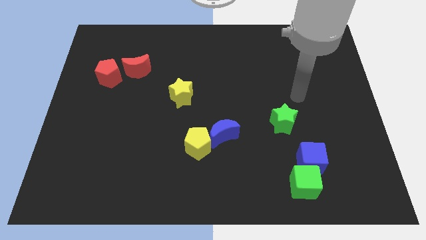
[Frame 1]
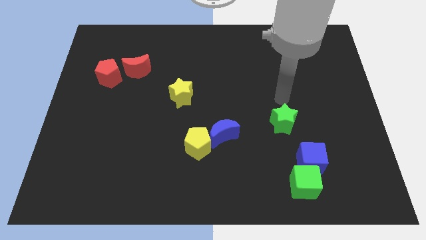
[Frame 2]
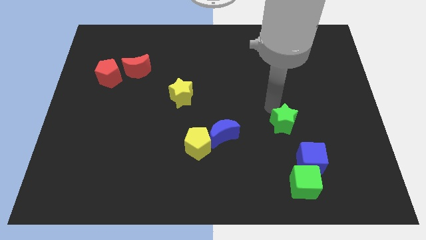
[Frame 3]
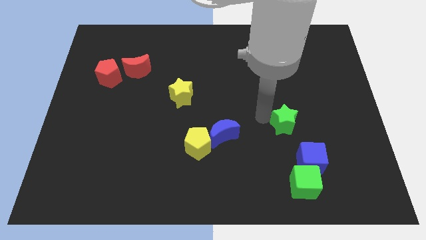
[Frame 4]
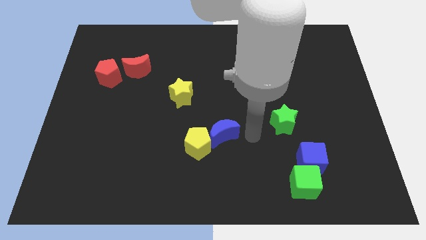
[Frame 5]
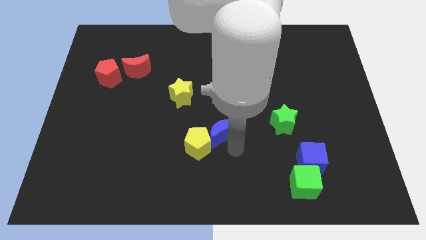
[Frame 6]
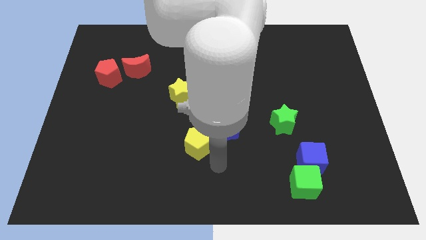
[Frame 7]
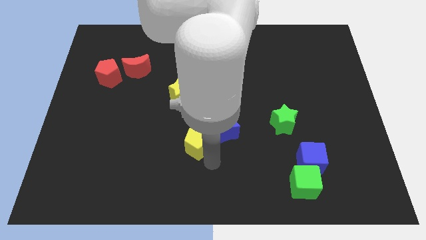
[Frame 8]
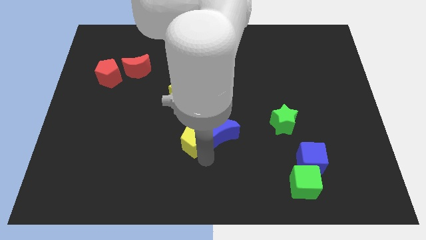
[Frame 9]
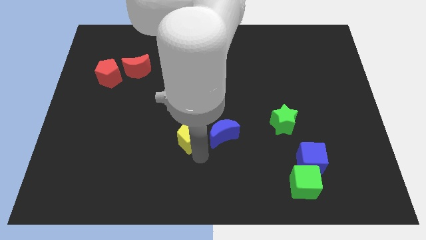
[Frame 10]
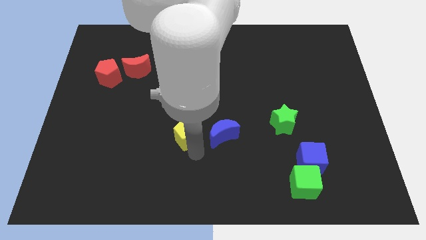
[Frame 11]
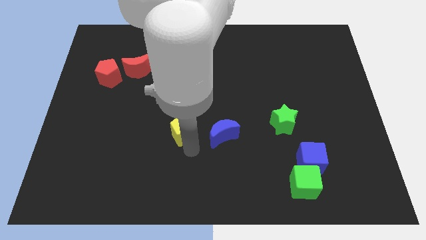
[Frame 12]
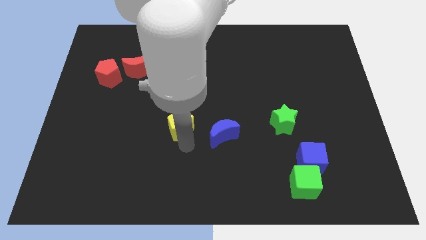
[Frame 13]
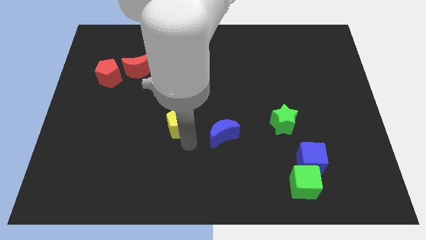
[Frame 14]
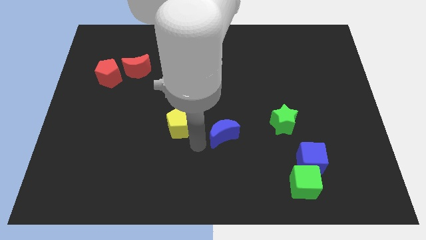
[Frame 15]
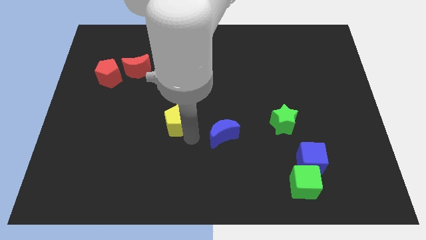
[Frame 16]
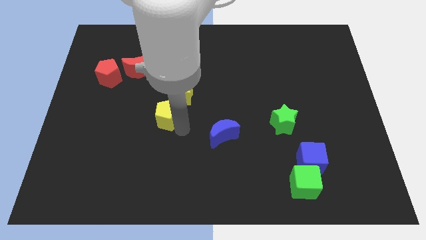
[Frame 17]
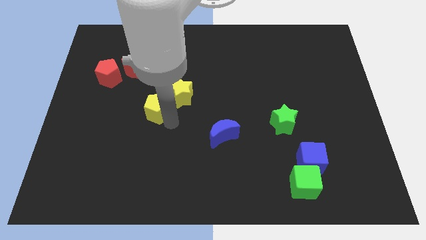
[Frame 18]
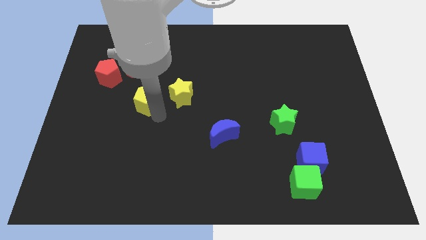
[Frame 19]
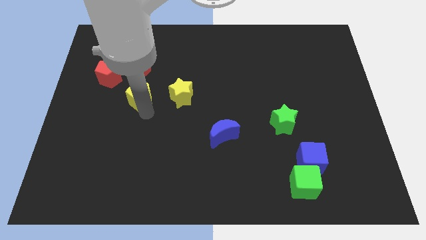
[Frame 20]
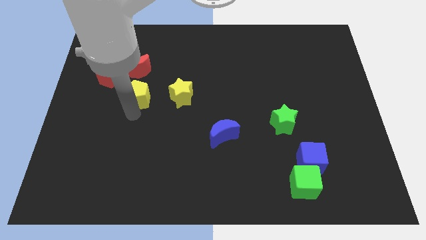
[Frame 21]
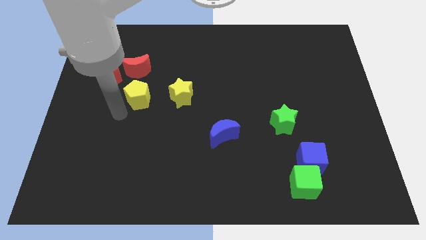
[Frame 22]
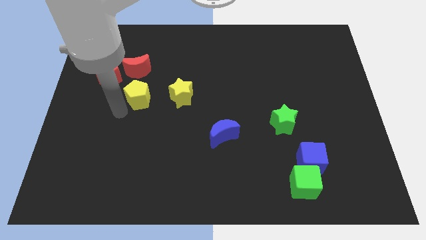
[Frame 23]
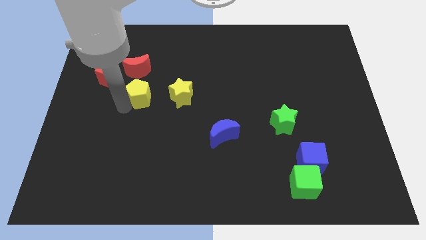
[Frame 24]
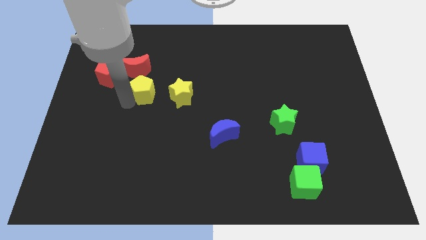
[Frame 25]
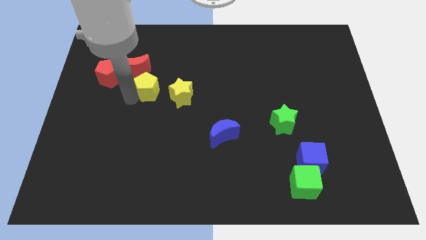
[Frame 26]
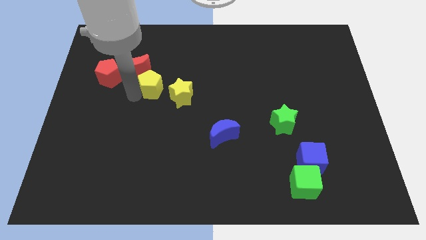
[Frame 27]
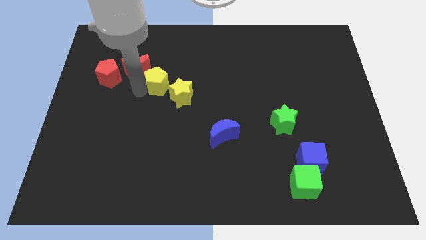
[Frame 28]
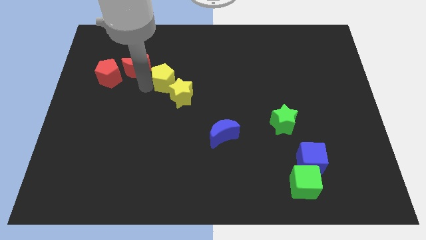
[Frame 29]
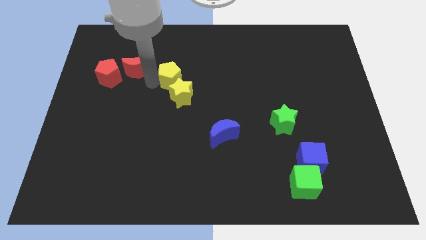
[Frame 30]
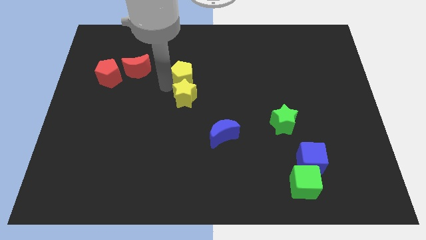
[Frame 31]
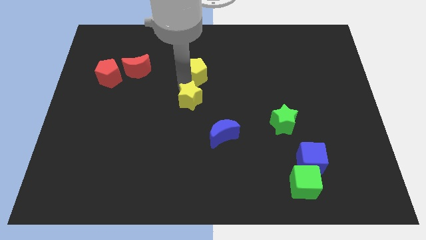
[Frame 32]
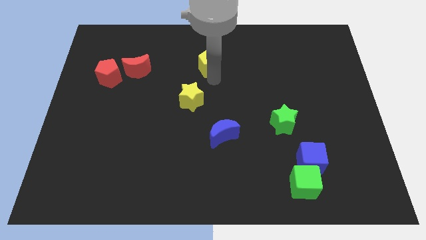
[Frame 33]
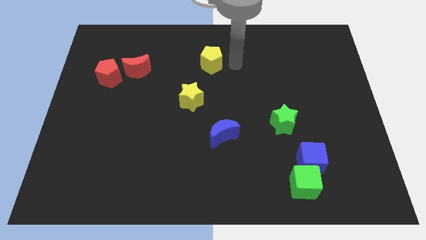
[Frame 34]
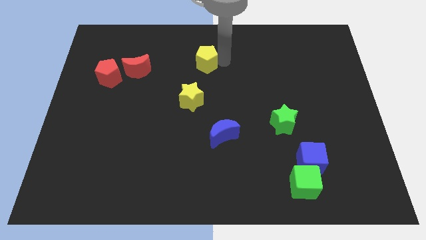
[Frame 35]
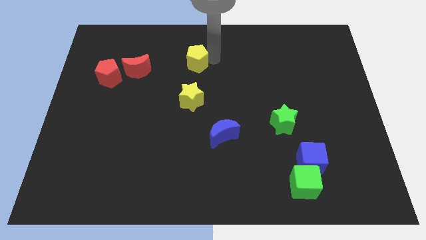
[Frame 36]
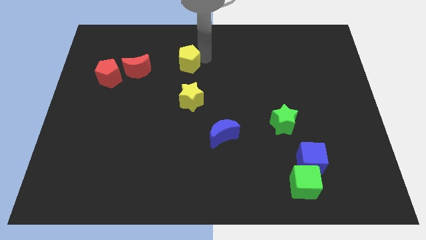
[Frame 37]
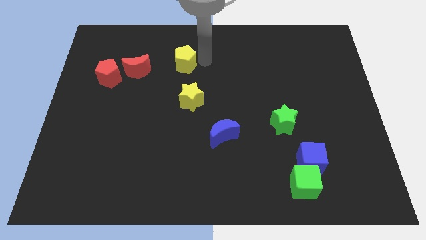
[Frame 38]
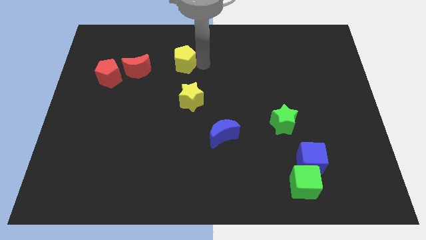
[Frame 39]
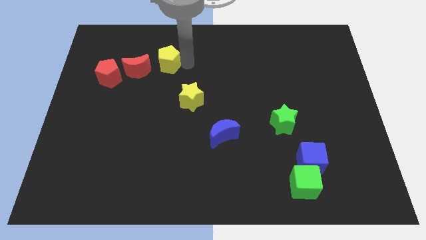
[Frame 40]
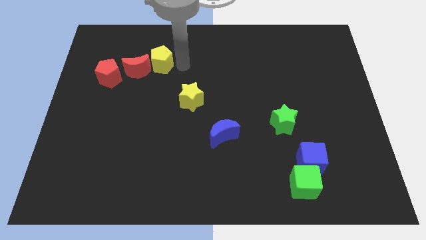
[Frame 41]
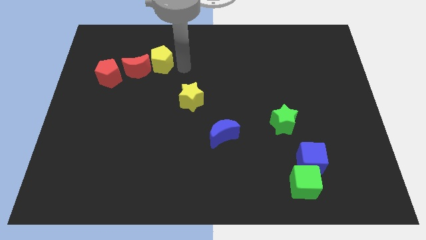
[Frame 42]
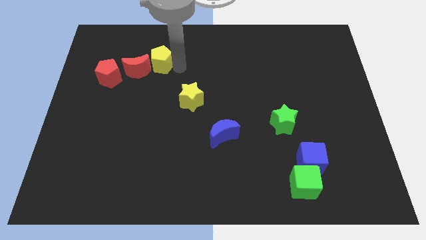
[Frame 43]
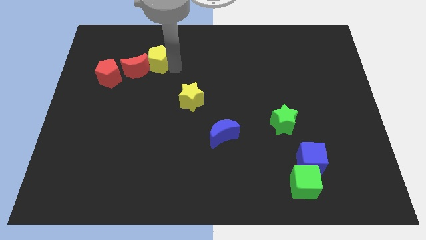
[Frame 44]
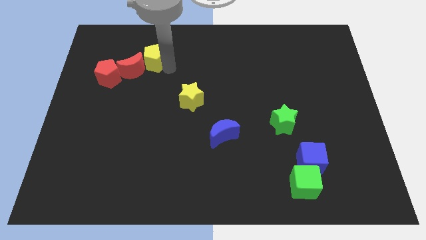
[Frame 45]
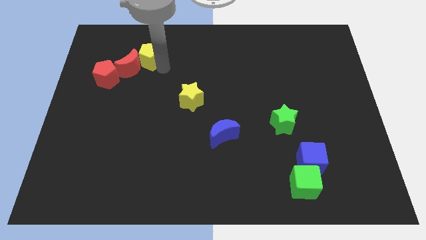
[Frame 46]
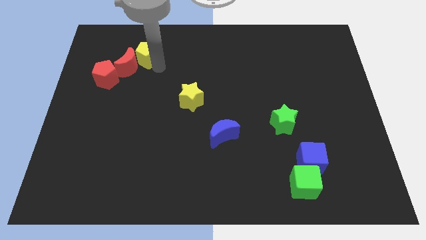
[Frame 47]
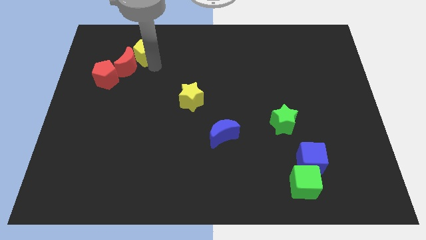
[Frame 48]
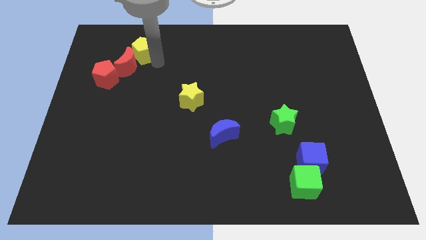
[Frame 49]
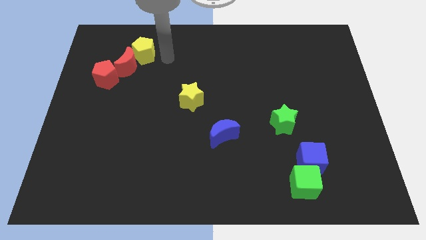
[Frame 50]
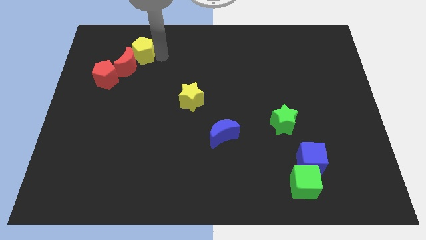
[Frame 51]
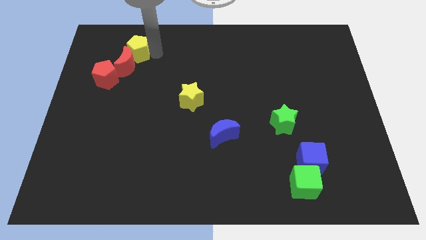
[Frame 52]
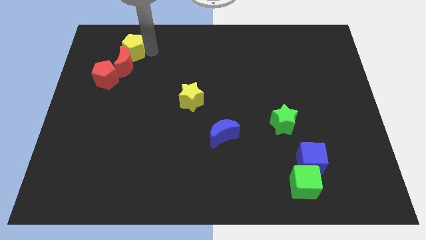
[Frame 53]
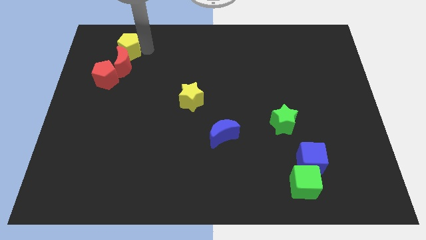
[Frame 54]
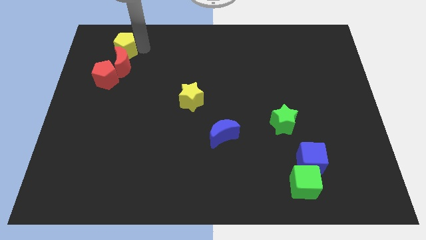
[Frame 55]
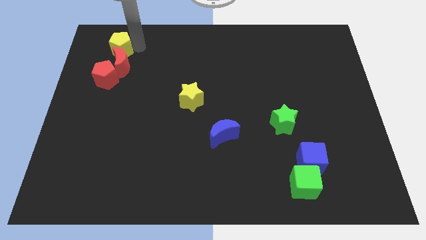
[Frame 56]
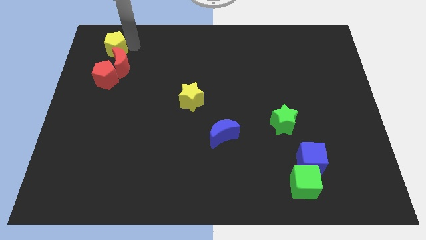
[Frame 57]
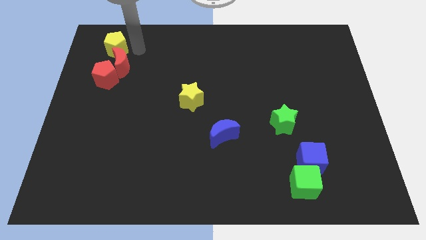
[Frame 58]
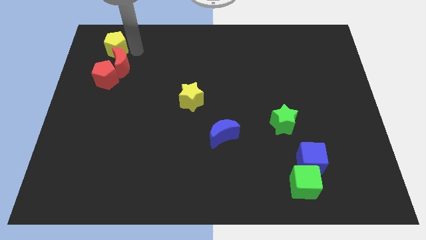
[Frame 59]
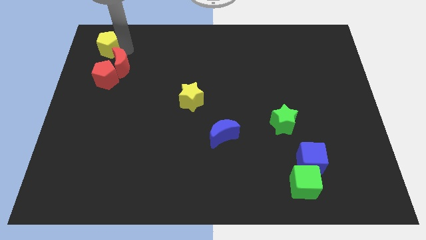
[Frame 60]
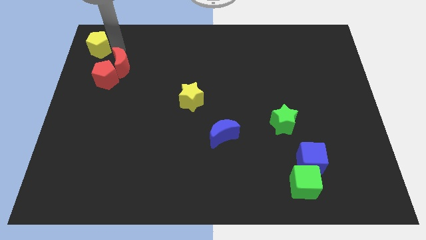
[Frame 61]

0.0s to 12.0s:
push the yellow pentagon to the top left of the board

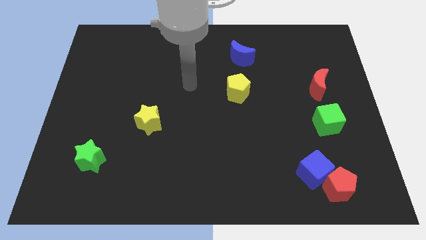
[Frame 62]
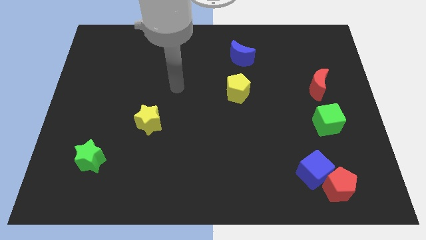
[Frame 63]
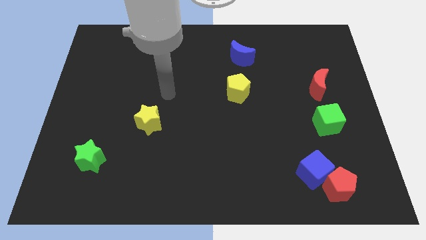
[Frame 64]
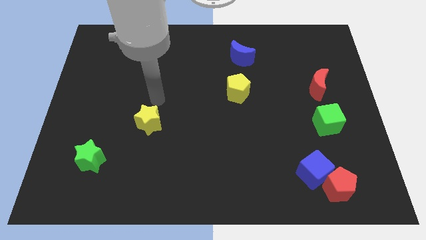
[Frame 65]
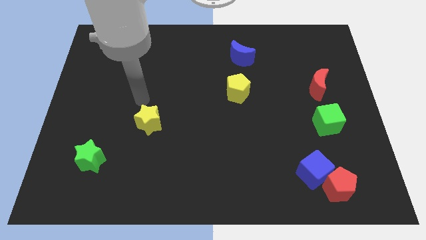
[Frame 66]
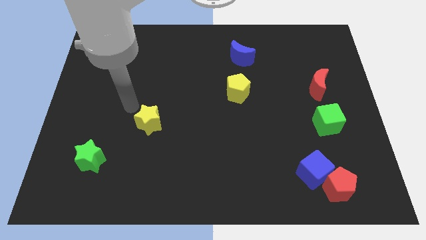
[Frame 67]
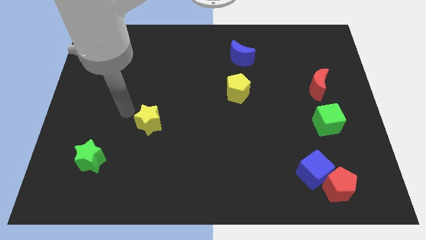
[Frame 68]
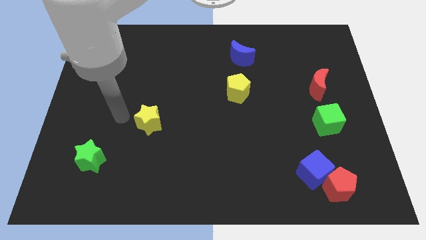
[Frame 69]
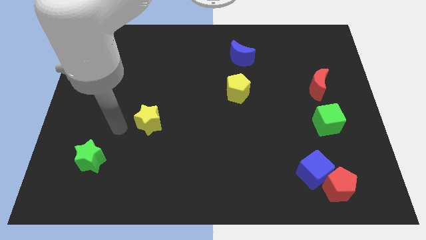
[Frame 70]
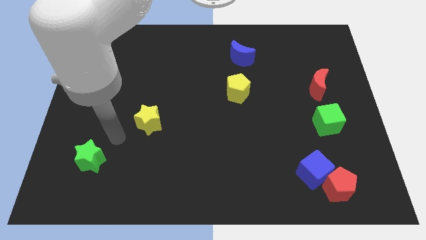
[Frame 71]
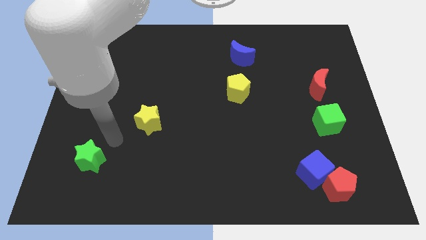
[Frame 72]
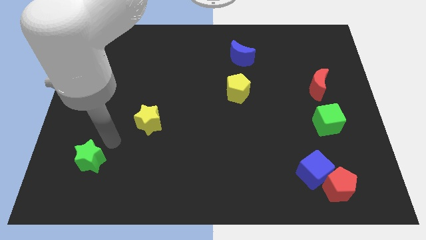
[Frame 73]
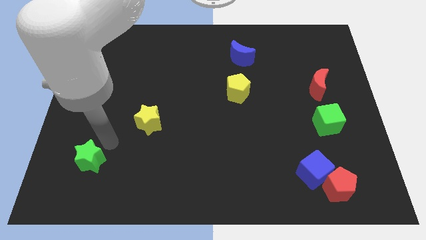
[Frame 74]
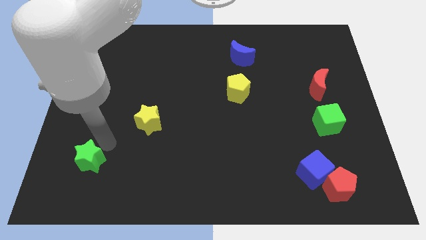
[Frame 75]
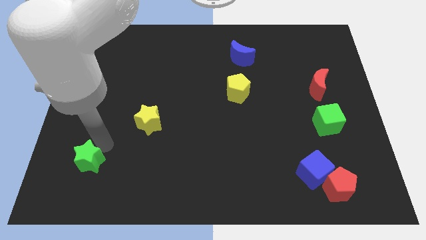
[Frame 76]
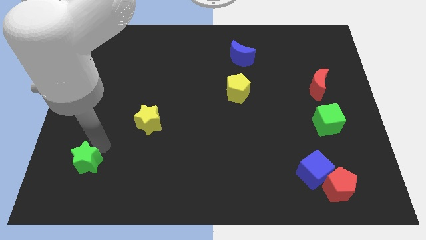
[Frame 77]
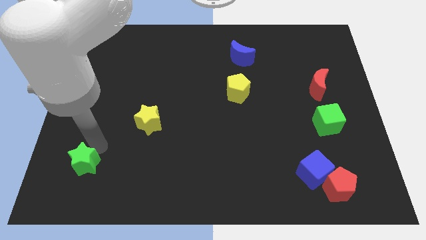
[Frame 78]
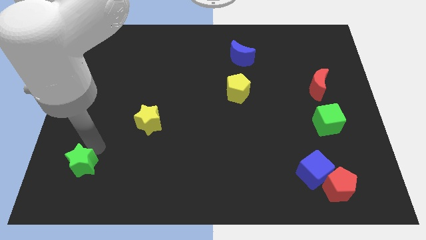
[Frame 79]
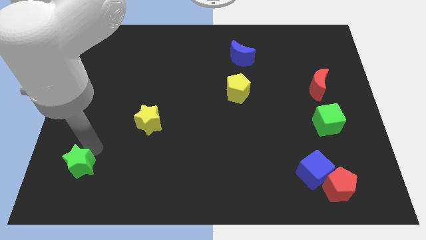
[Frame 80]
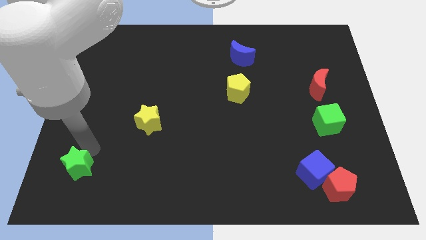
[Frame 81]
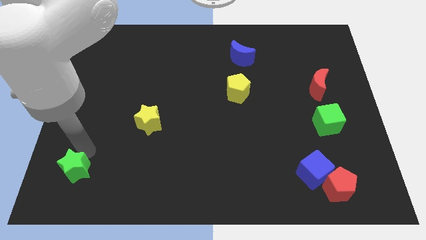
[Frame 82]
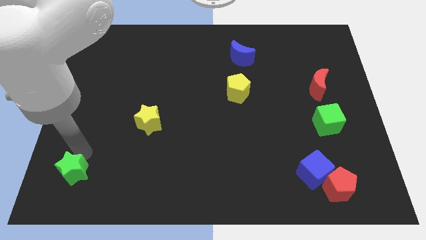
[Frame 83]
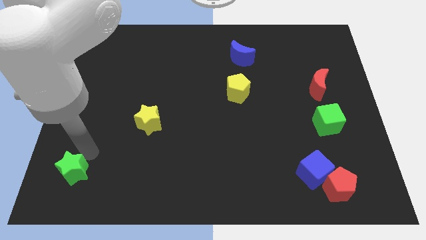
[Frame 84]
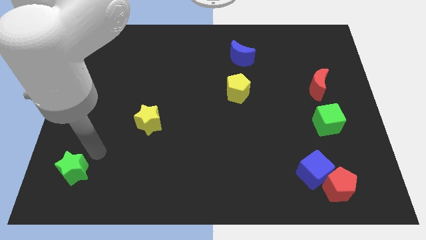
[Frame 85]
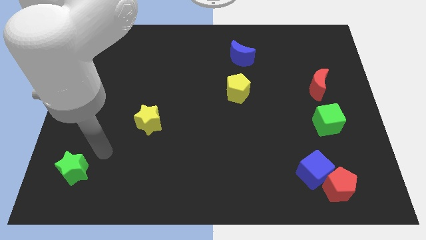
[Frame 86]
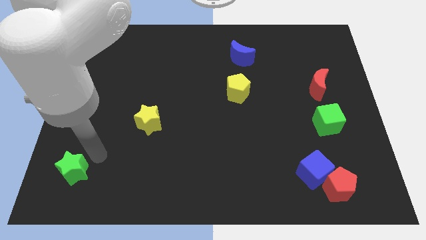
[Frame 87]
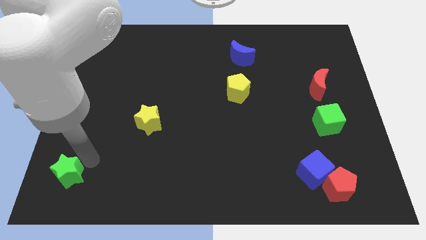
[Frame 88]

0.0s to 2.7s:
push the green star to the bottom left
